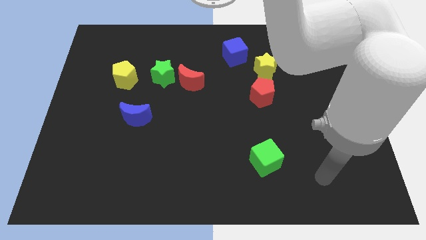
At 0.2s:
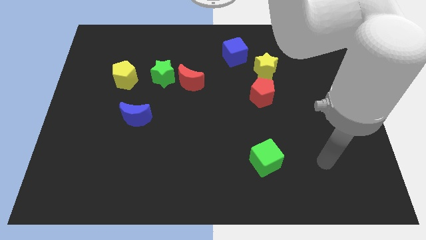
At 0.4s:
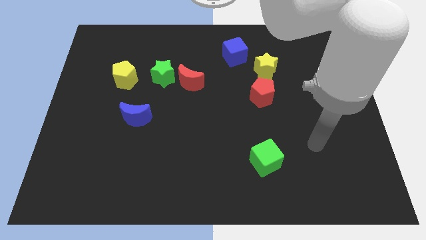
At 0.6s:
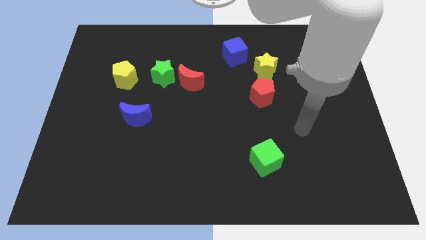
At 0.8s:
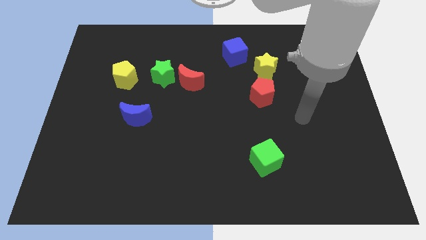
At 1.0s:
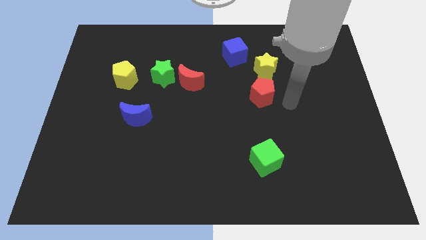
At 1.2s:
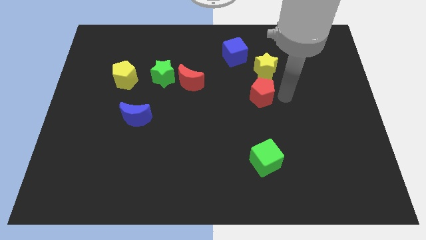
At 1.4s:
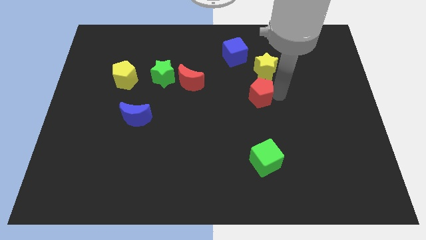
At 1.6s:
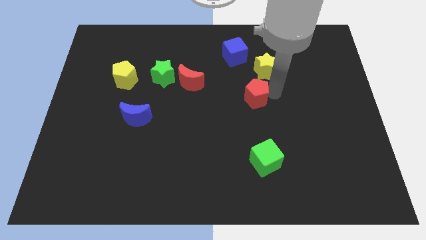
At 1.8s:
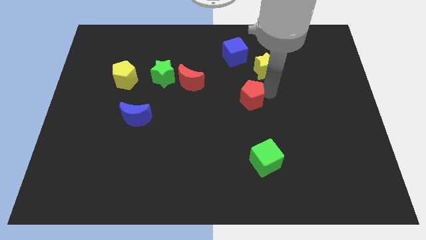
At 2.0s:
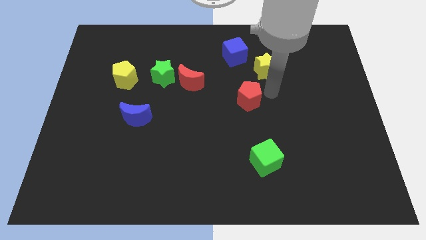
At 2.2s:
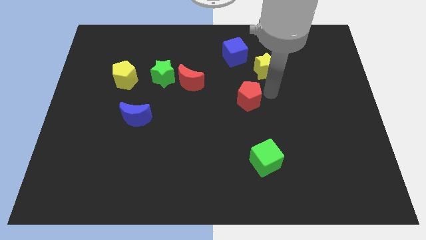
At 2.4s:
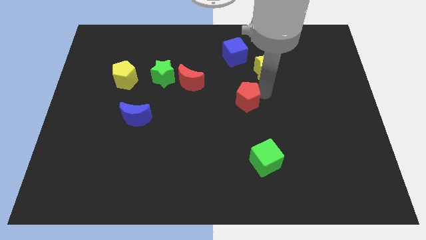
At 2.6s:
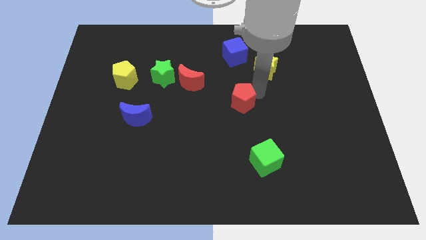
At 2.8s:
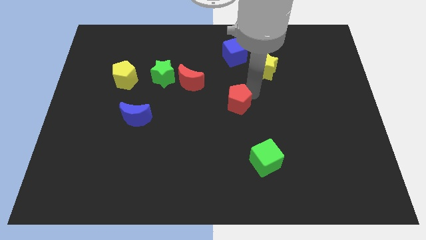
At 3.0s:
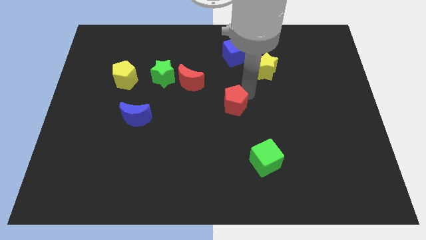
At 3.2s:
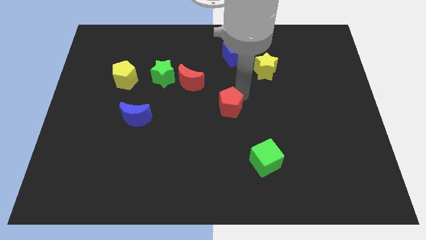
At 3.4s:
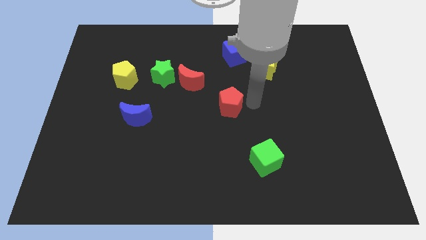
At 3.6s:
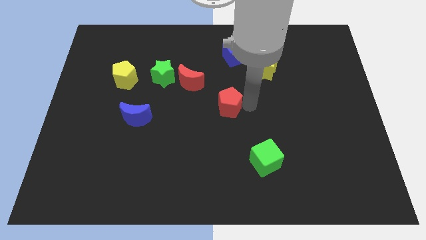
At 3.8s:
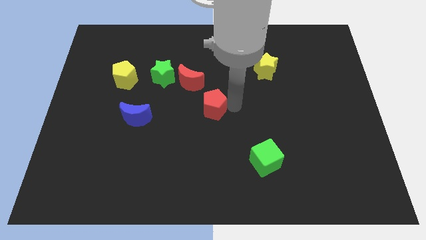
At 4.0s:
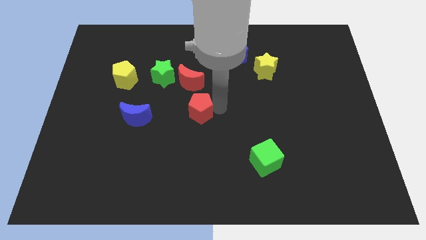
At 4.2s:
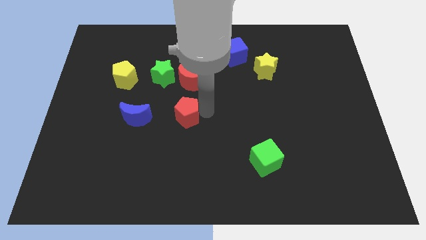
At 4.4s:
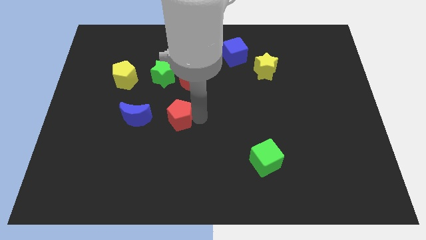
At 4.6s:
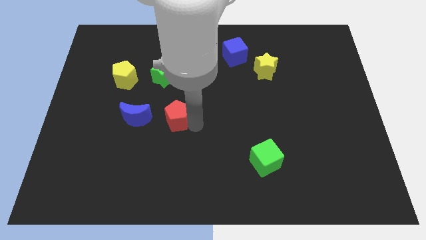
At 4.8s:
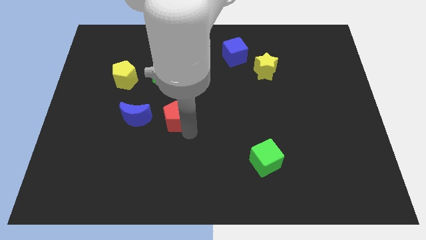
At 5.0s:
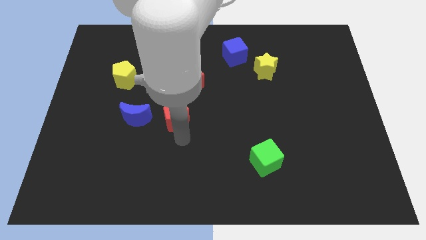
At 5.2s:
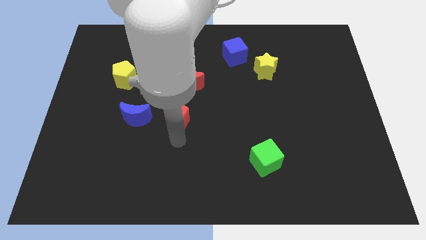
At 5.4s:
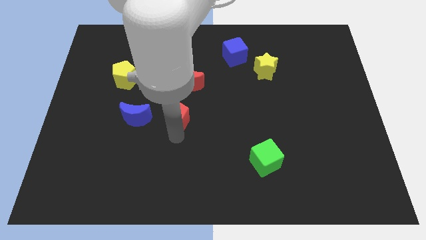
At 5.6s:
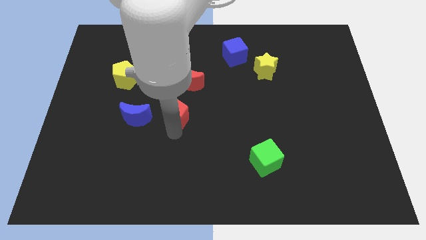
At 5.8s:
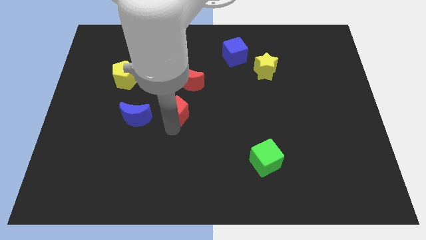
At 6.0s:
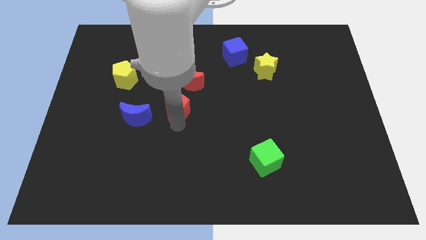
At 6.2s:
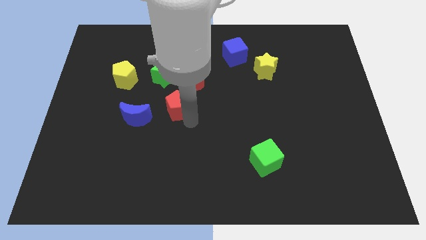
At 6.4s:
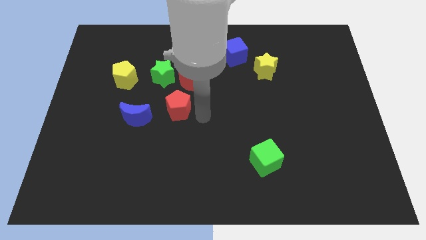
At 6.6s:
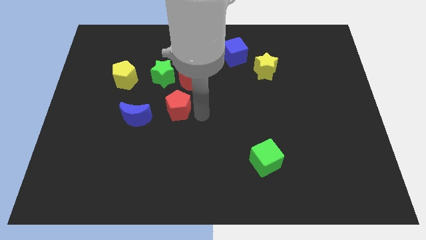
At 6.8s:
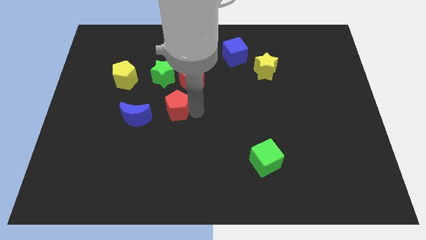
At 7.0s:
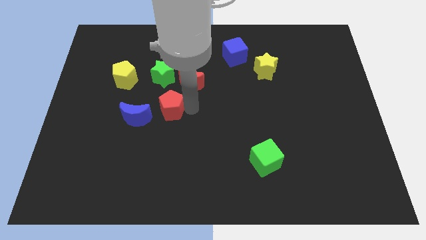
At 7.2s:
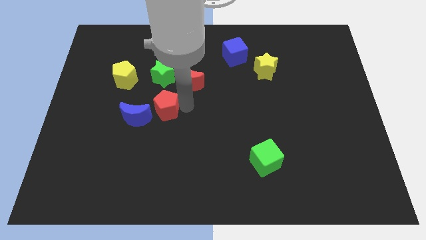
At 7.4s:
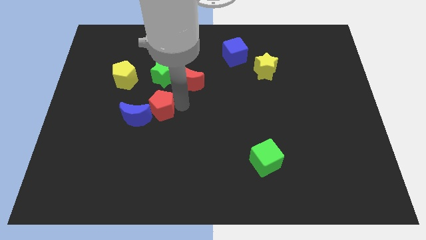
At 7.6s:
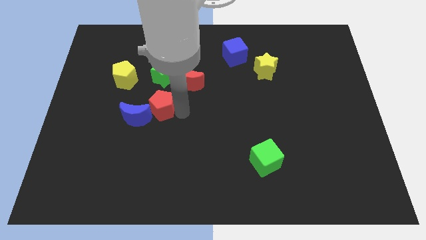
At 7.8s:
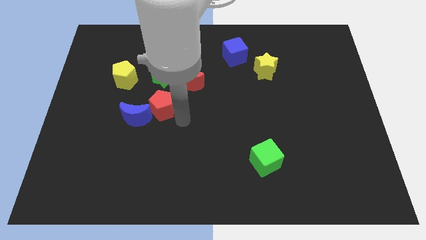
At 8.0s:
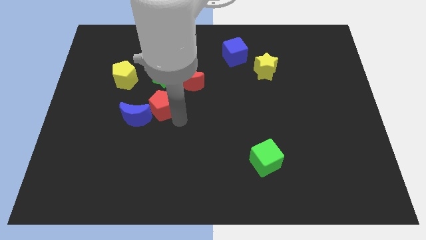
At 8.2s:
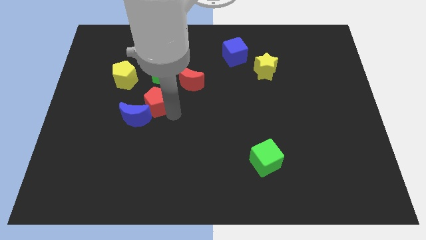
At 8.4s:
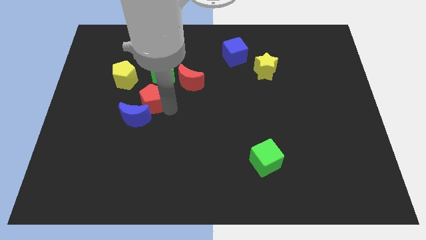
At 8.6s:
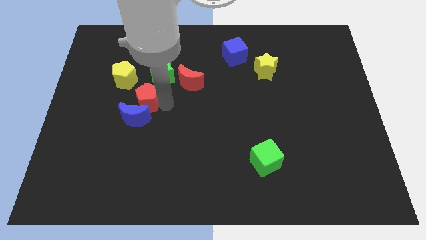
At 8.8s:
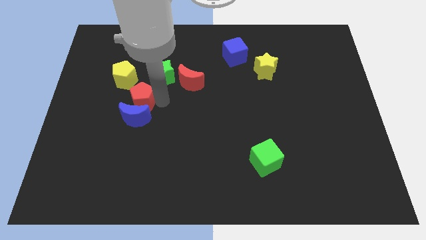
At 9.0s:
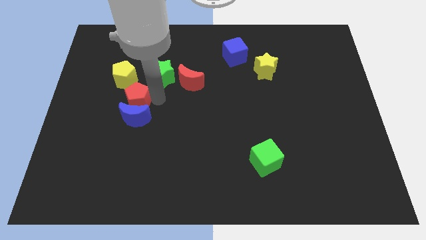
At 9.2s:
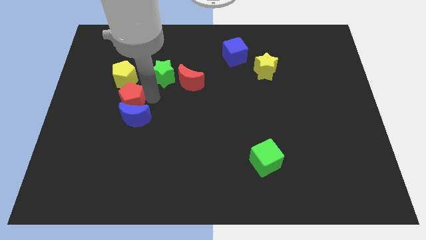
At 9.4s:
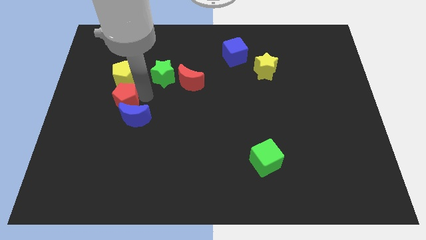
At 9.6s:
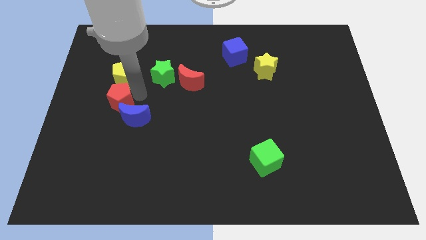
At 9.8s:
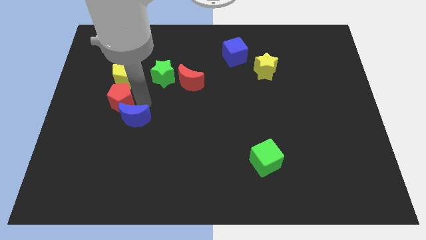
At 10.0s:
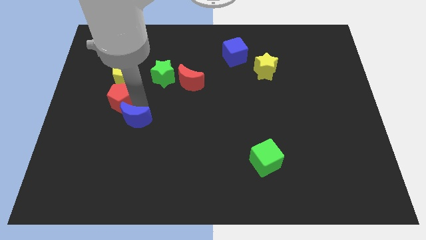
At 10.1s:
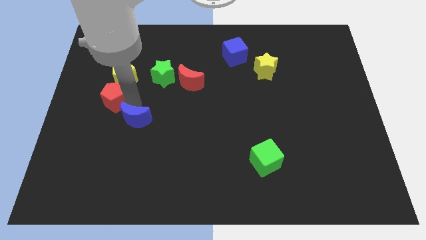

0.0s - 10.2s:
slide the red pentagon to the bottom left side of the yellow pentagon

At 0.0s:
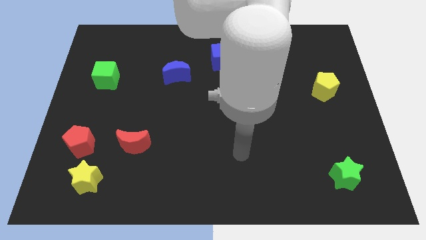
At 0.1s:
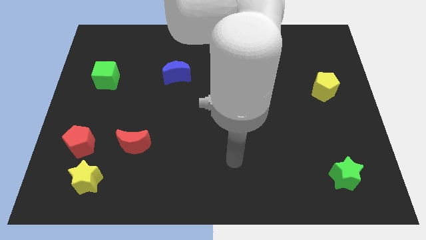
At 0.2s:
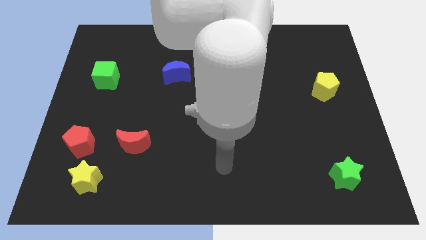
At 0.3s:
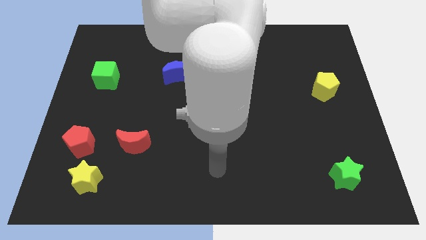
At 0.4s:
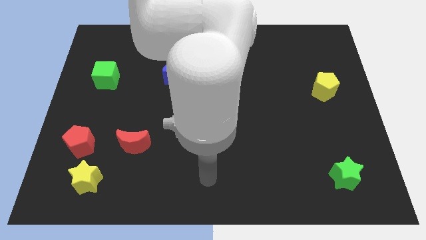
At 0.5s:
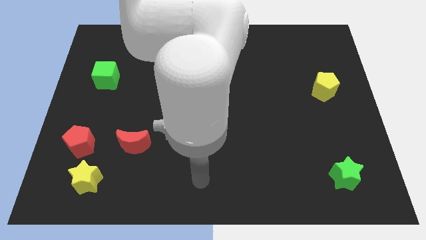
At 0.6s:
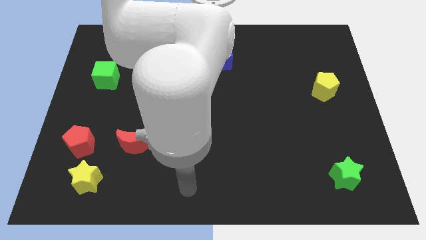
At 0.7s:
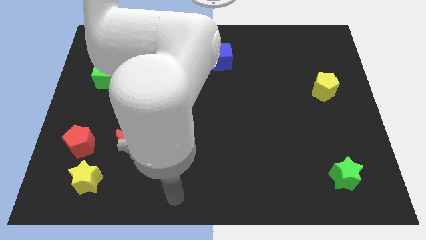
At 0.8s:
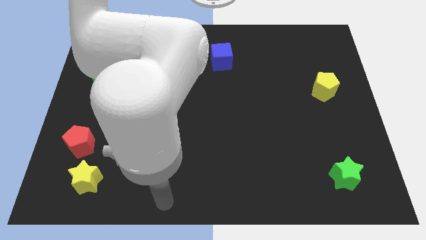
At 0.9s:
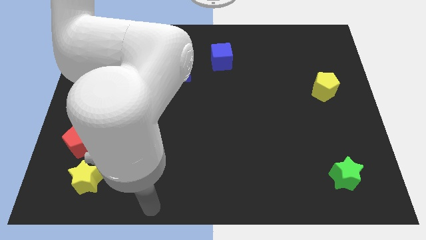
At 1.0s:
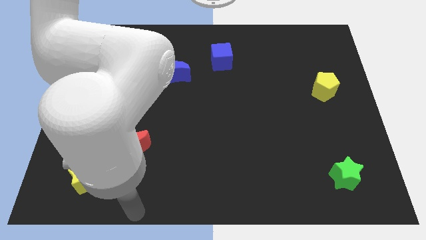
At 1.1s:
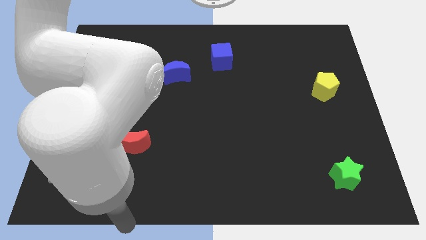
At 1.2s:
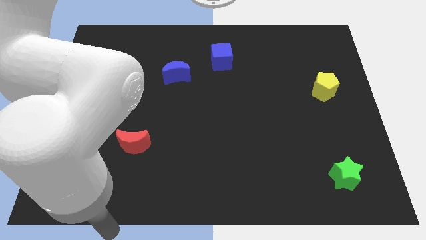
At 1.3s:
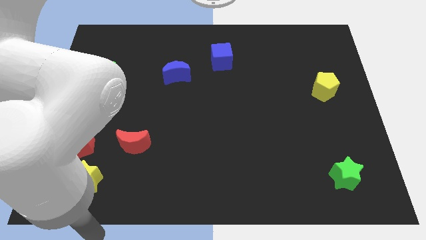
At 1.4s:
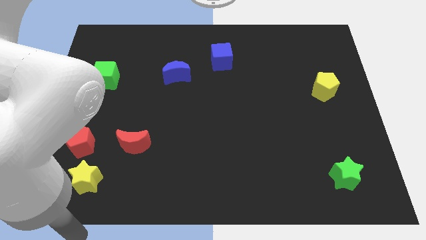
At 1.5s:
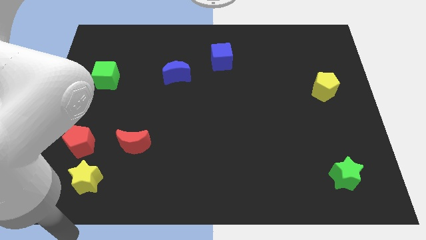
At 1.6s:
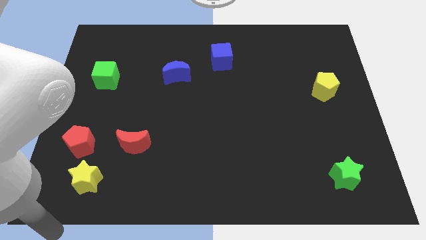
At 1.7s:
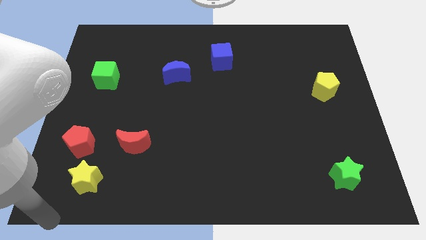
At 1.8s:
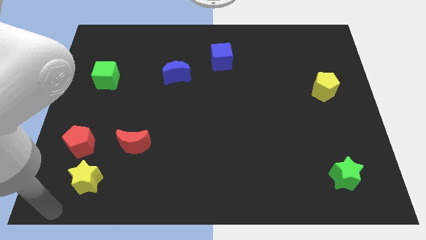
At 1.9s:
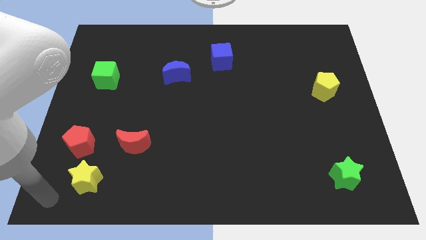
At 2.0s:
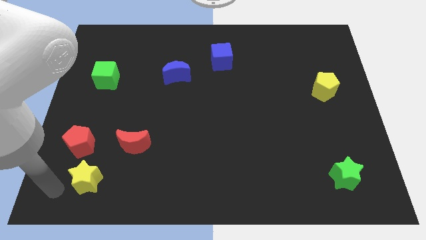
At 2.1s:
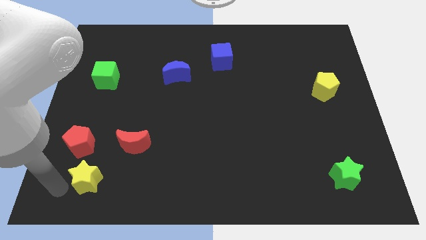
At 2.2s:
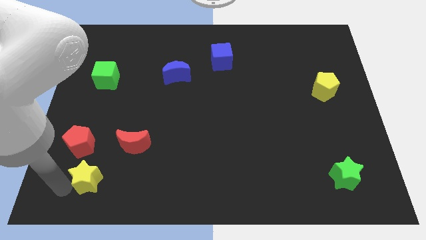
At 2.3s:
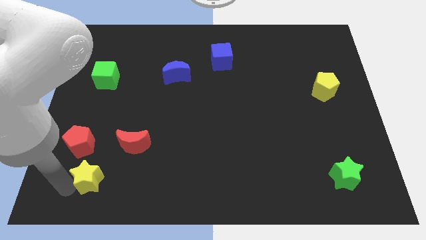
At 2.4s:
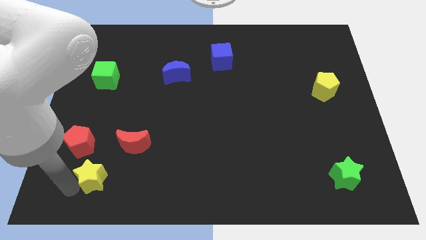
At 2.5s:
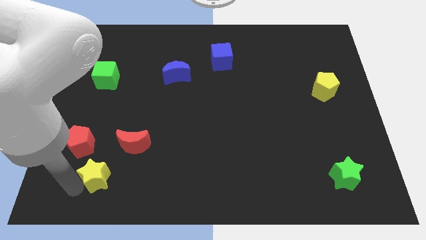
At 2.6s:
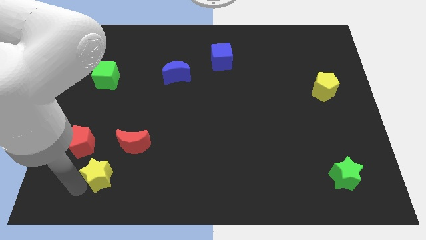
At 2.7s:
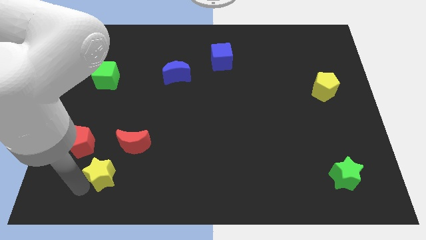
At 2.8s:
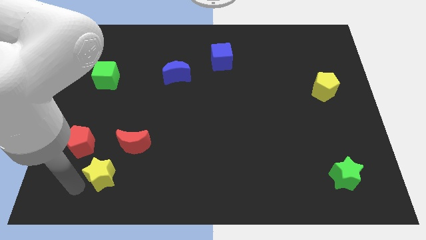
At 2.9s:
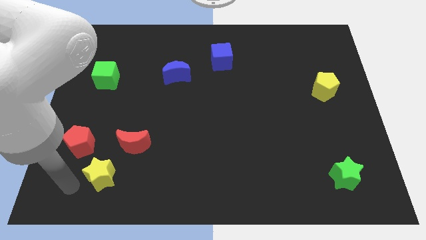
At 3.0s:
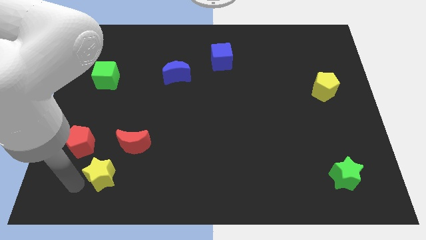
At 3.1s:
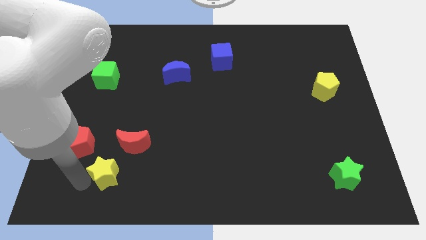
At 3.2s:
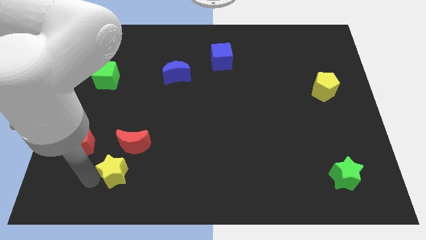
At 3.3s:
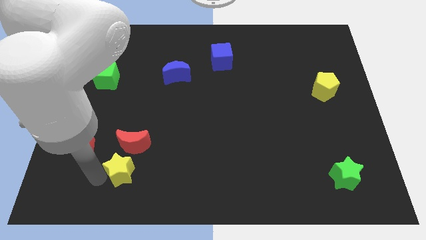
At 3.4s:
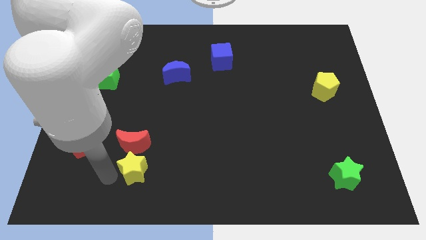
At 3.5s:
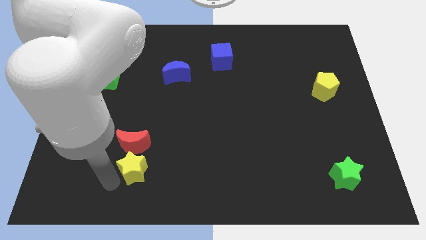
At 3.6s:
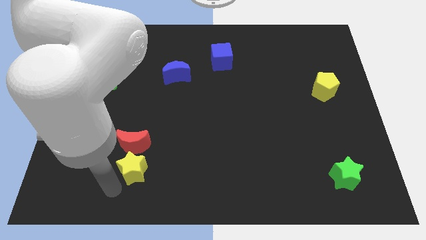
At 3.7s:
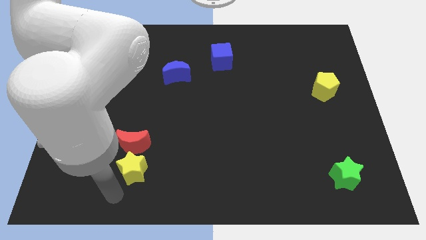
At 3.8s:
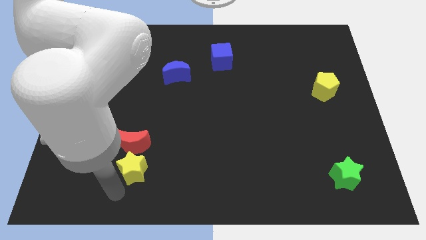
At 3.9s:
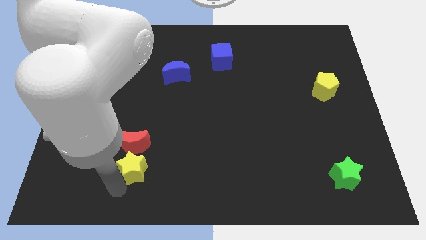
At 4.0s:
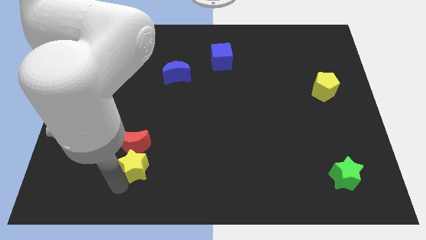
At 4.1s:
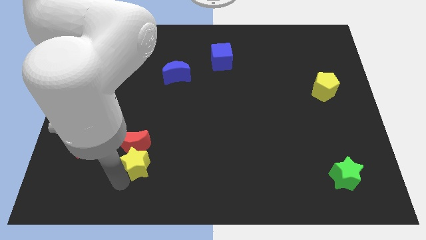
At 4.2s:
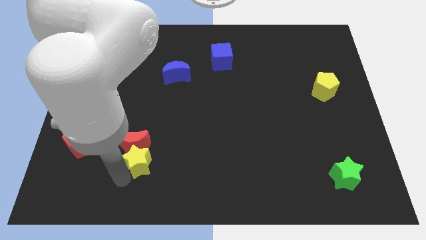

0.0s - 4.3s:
push the yellow star right of the red pentagon
